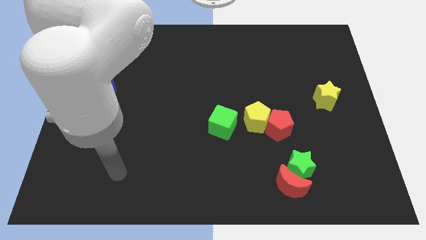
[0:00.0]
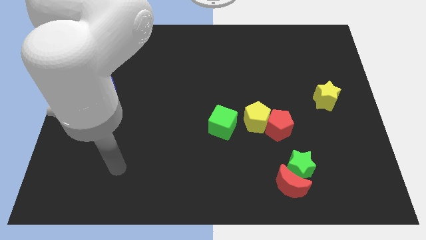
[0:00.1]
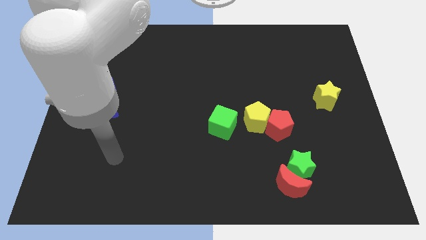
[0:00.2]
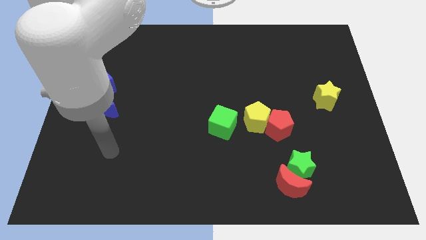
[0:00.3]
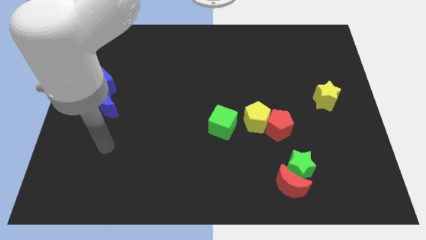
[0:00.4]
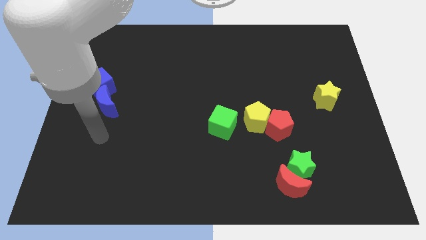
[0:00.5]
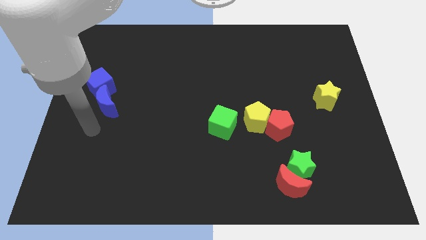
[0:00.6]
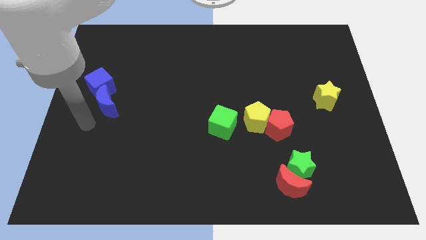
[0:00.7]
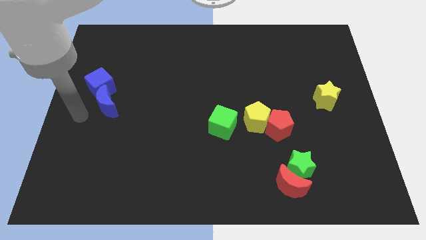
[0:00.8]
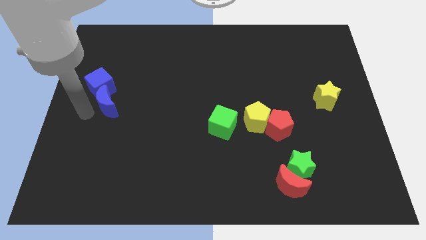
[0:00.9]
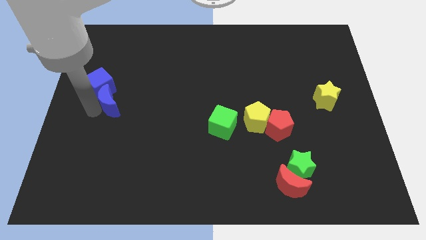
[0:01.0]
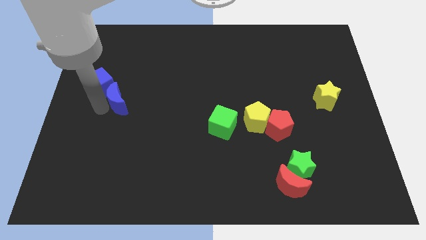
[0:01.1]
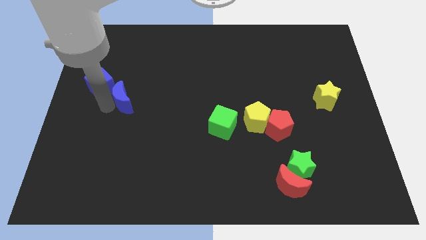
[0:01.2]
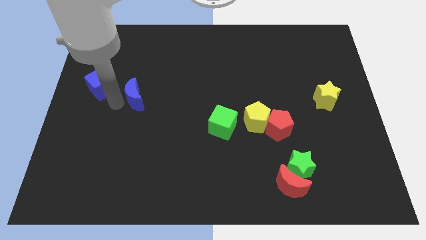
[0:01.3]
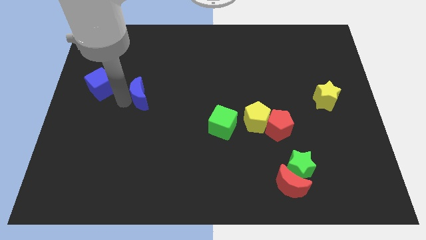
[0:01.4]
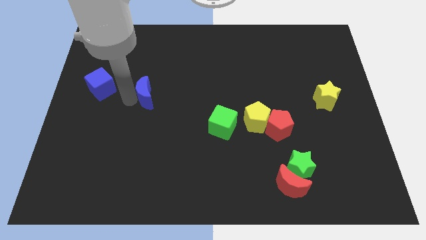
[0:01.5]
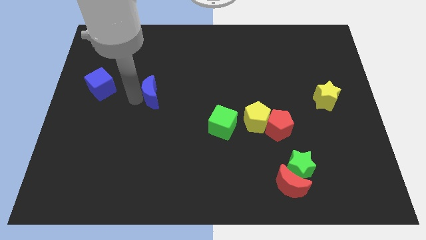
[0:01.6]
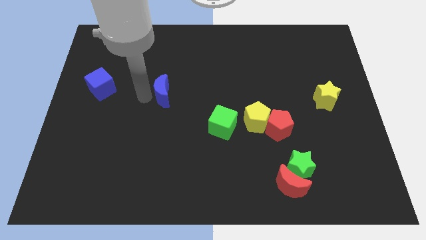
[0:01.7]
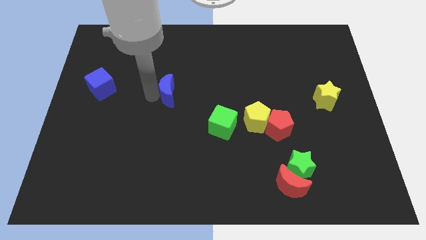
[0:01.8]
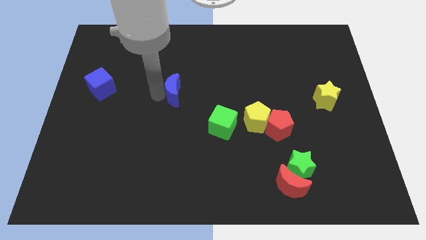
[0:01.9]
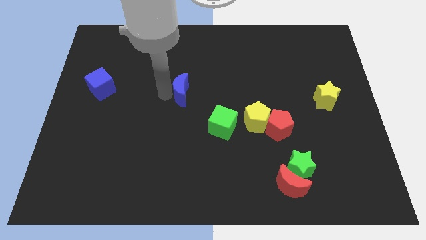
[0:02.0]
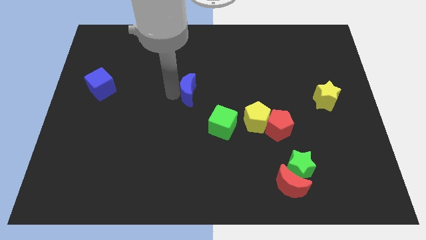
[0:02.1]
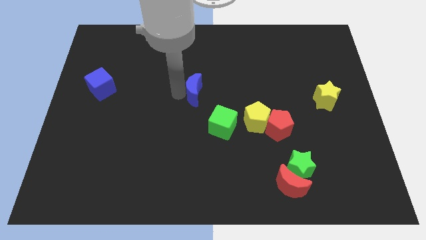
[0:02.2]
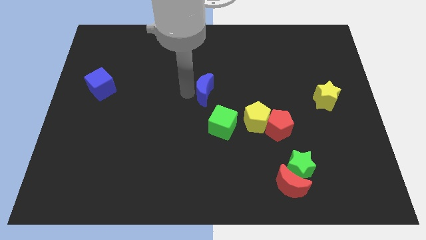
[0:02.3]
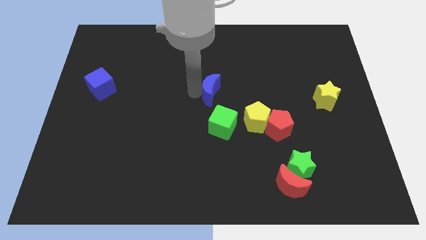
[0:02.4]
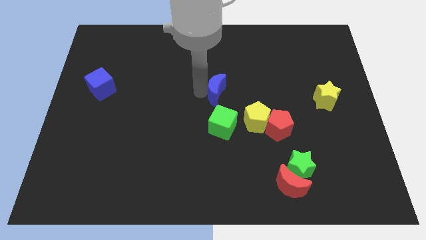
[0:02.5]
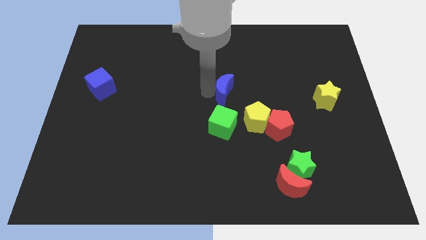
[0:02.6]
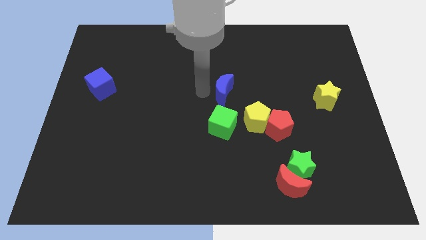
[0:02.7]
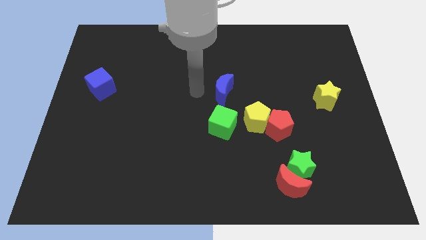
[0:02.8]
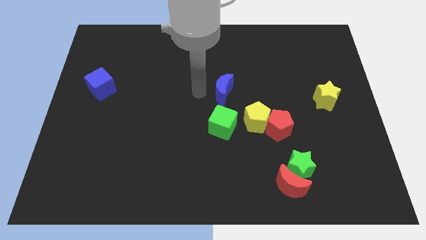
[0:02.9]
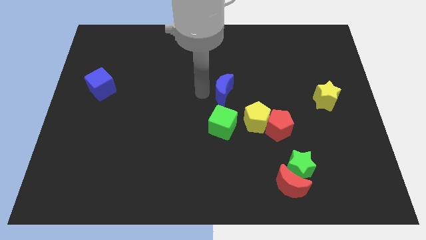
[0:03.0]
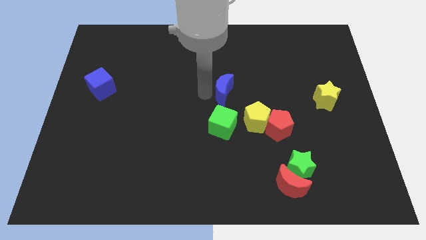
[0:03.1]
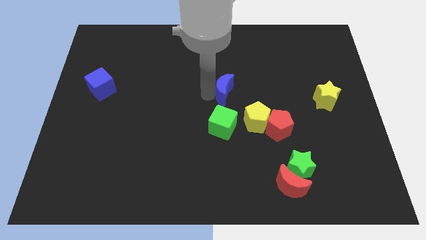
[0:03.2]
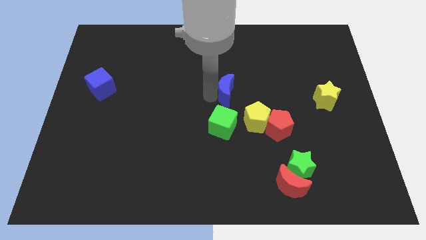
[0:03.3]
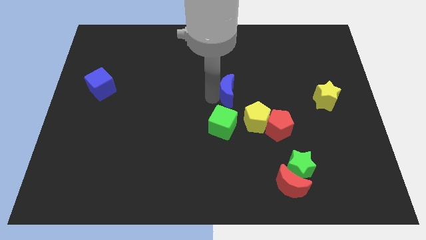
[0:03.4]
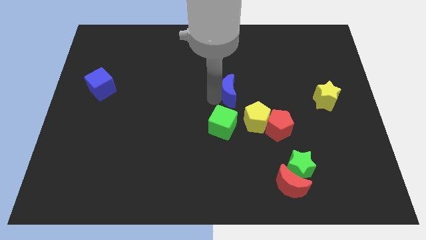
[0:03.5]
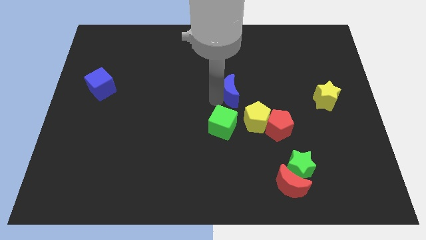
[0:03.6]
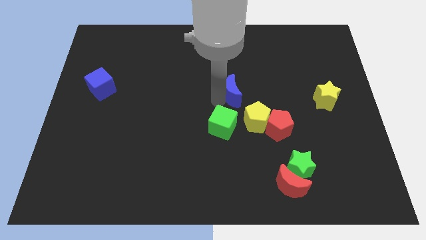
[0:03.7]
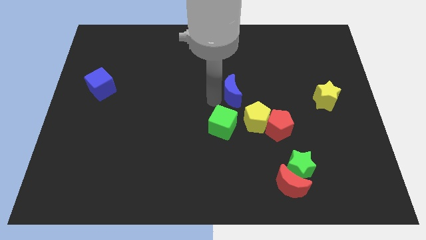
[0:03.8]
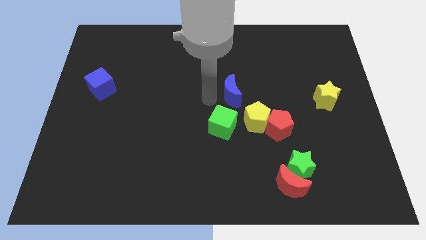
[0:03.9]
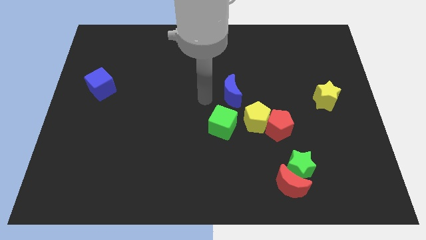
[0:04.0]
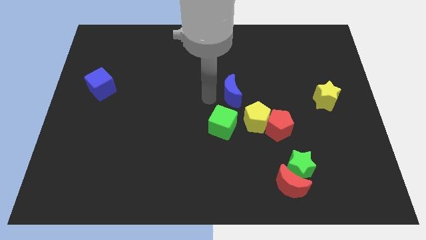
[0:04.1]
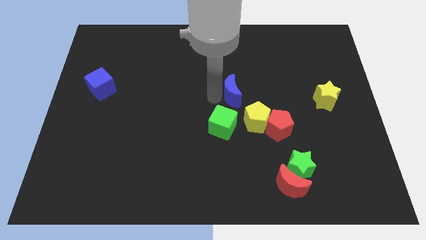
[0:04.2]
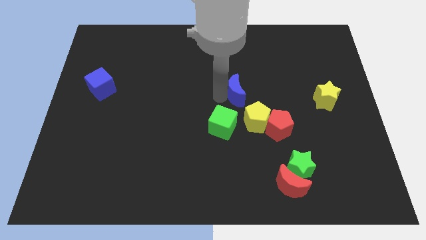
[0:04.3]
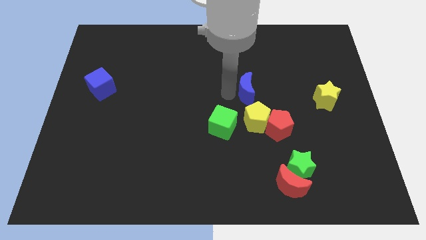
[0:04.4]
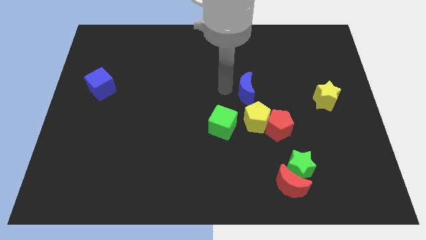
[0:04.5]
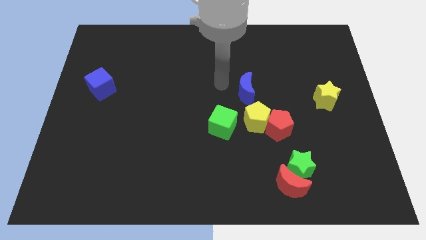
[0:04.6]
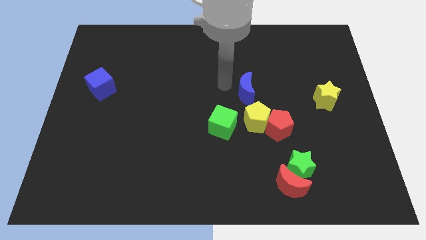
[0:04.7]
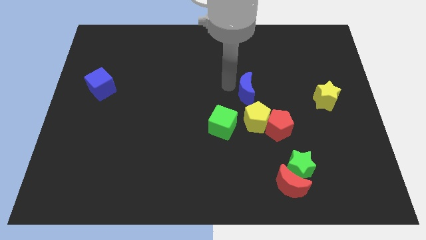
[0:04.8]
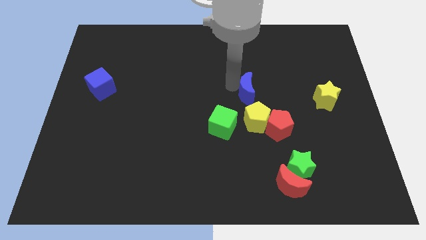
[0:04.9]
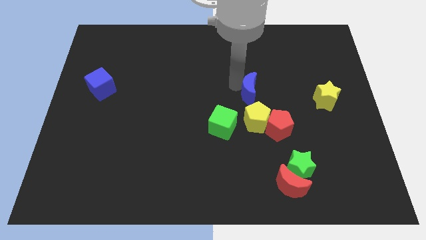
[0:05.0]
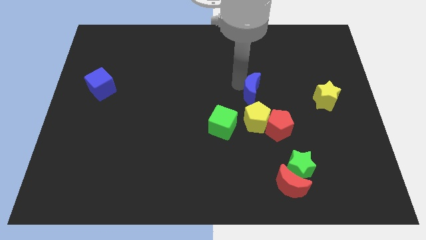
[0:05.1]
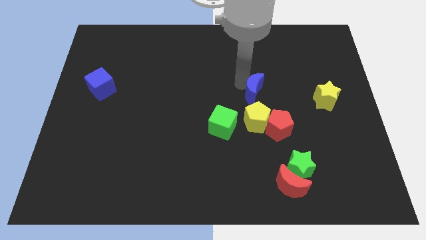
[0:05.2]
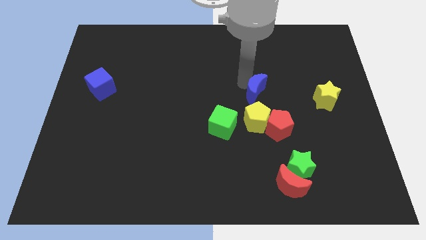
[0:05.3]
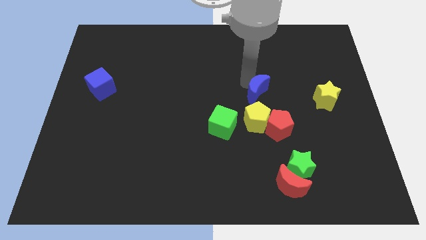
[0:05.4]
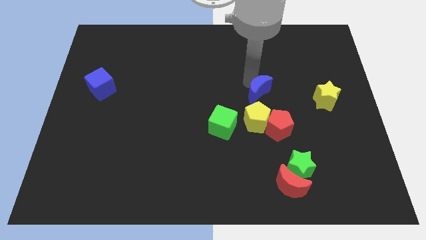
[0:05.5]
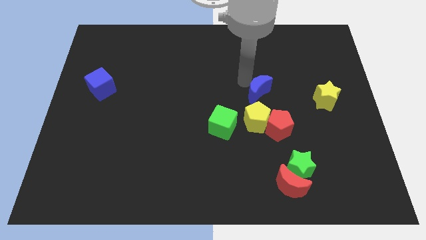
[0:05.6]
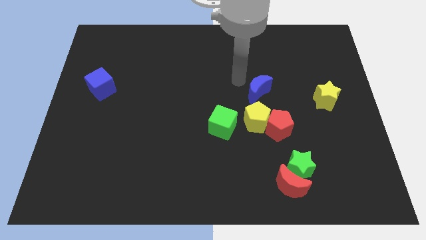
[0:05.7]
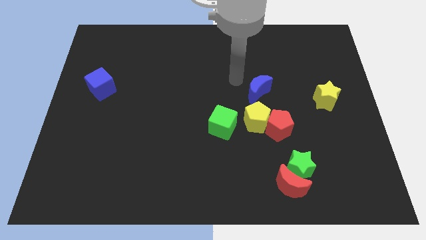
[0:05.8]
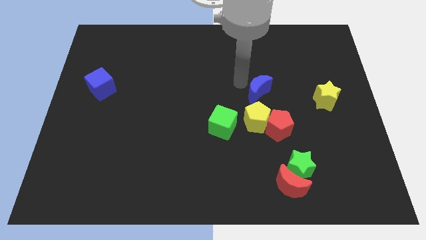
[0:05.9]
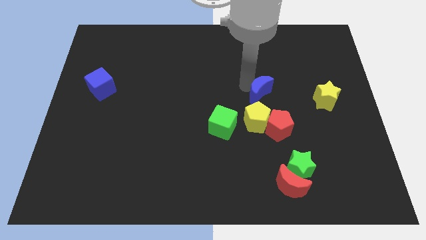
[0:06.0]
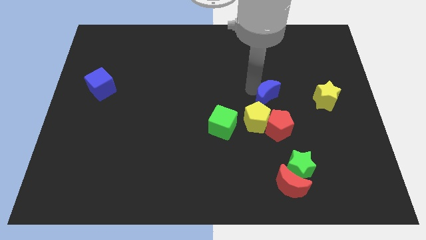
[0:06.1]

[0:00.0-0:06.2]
push the blue moon to the top right of the yellow pentagon

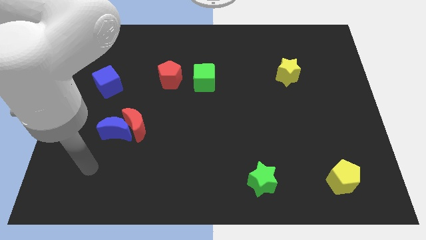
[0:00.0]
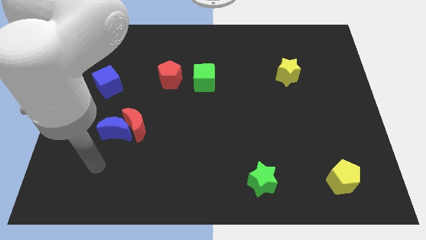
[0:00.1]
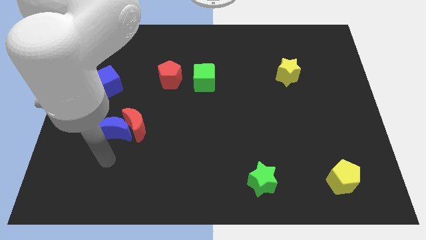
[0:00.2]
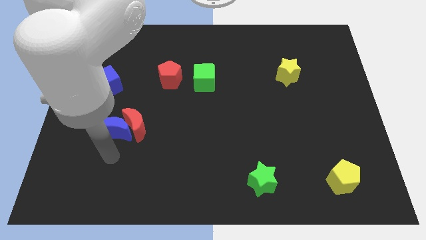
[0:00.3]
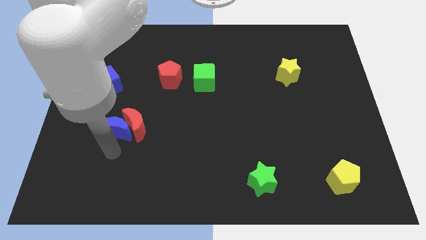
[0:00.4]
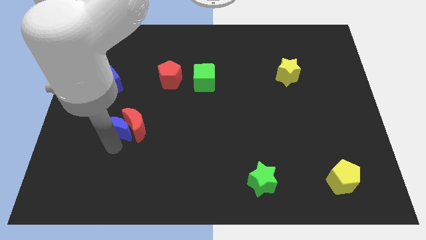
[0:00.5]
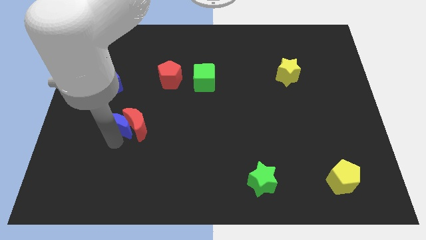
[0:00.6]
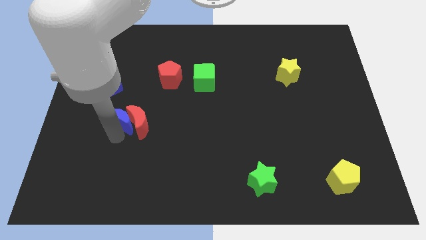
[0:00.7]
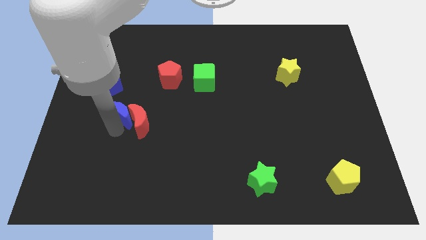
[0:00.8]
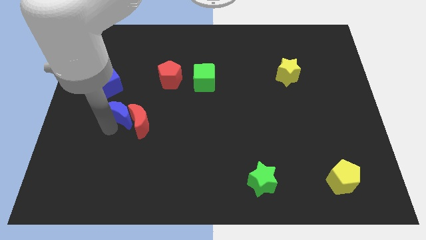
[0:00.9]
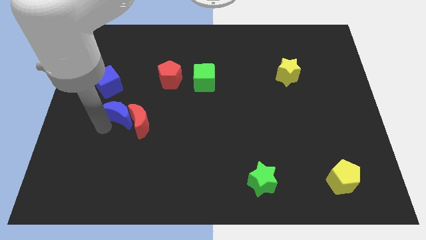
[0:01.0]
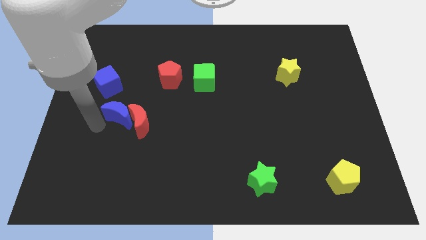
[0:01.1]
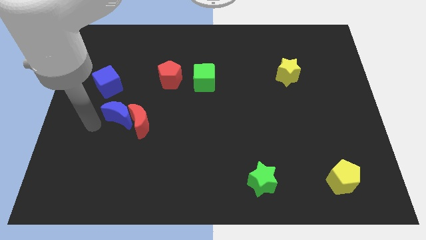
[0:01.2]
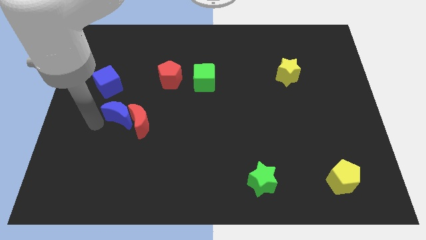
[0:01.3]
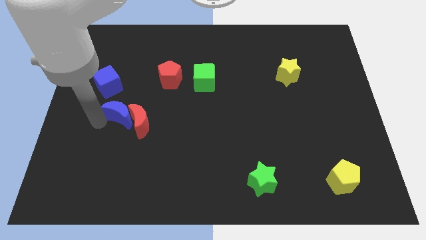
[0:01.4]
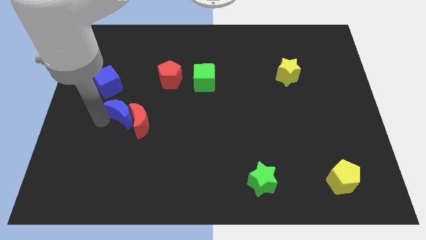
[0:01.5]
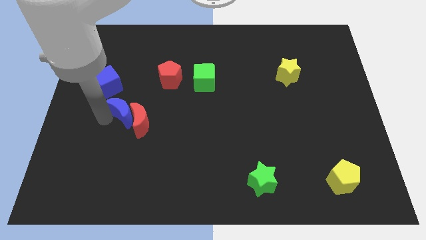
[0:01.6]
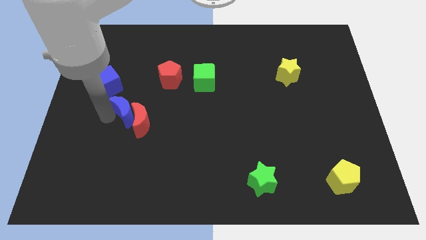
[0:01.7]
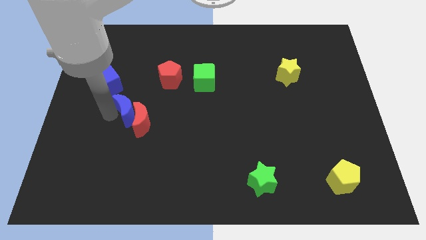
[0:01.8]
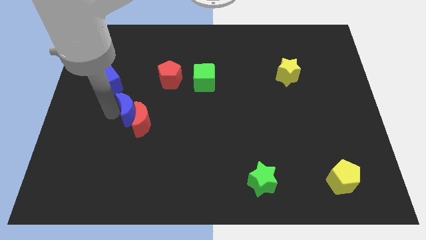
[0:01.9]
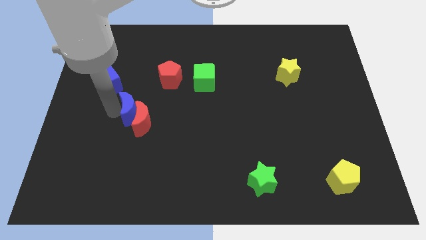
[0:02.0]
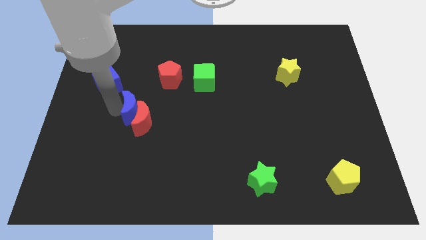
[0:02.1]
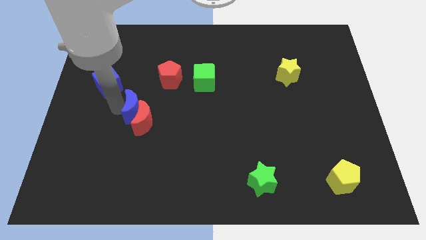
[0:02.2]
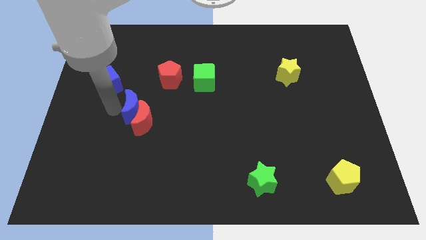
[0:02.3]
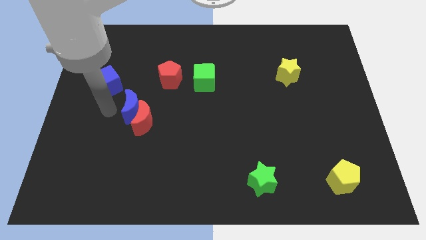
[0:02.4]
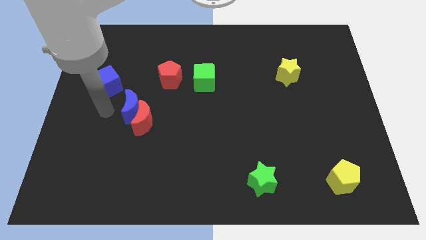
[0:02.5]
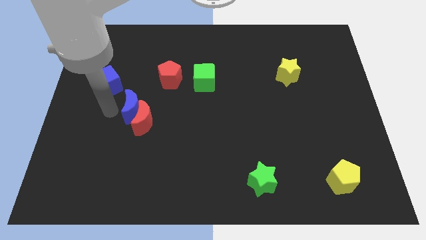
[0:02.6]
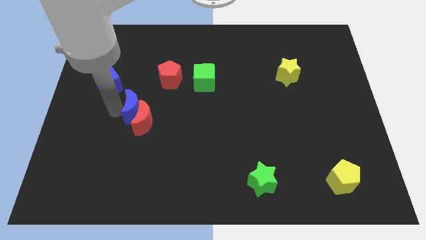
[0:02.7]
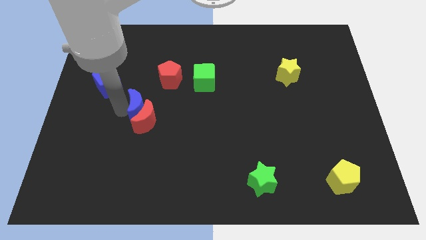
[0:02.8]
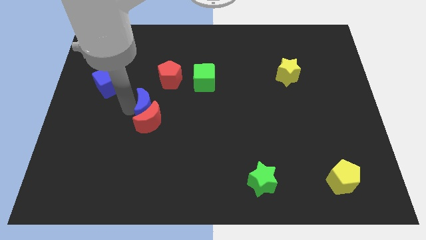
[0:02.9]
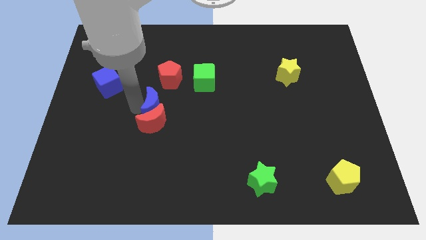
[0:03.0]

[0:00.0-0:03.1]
slide the blue moon to the bottom side of the red pentagon
